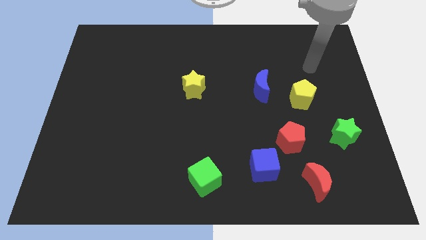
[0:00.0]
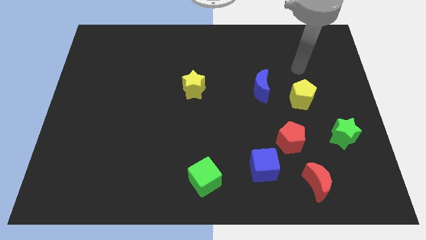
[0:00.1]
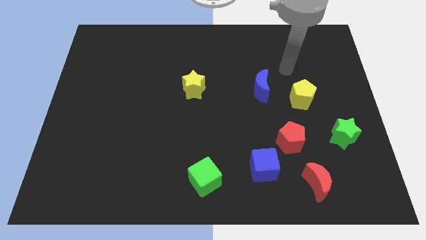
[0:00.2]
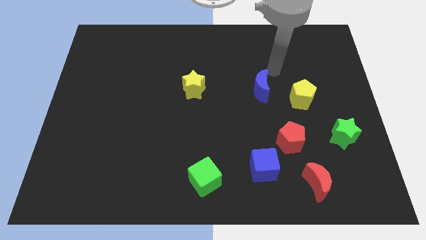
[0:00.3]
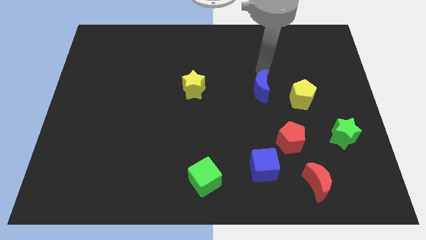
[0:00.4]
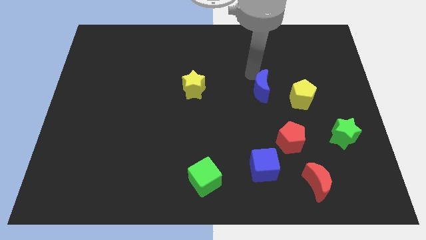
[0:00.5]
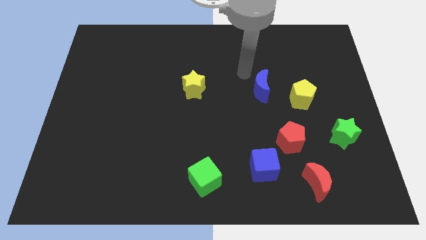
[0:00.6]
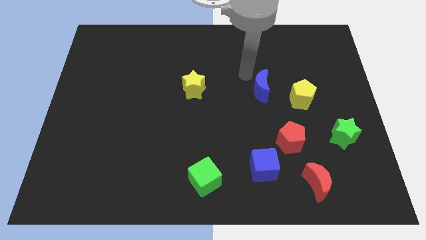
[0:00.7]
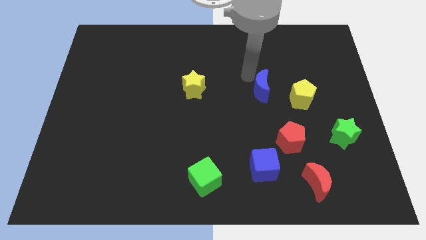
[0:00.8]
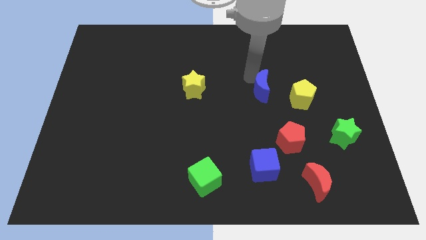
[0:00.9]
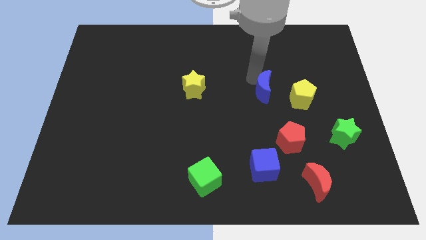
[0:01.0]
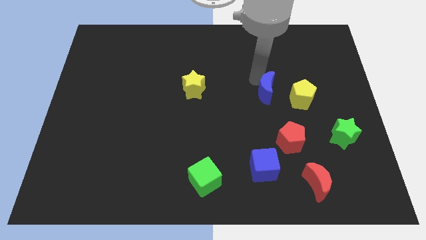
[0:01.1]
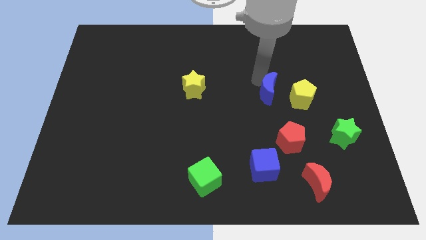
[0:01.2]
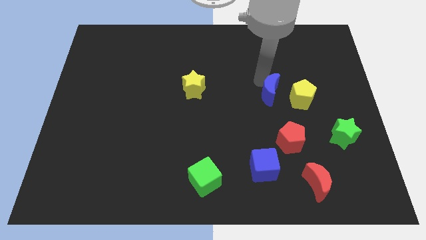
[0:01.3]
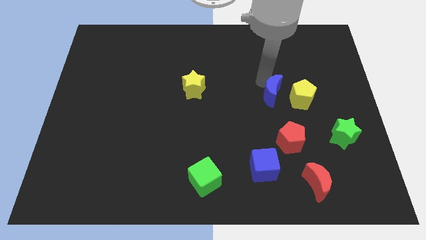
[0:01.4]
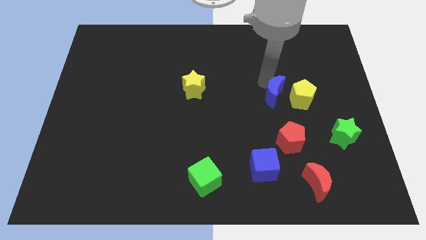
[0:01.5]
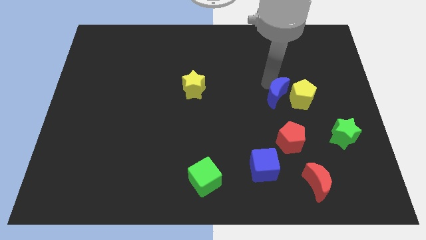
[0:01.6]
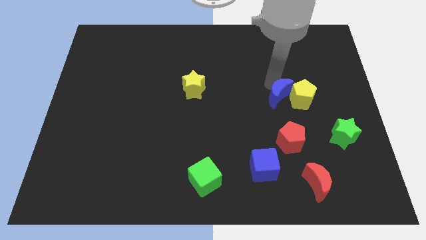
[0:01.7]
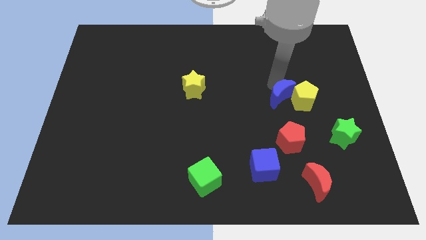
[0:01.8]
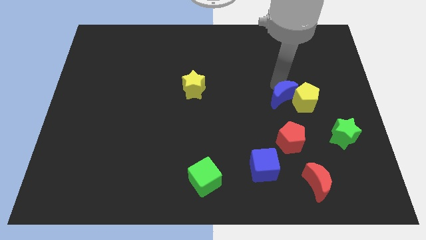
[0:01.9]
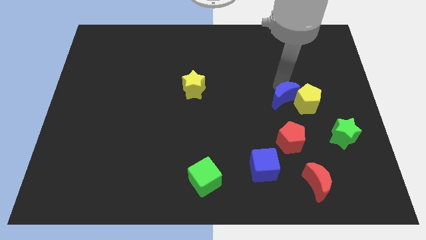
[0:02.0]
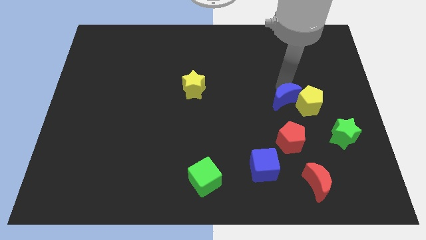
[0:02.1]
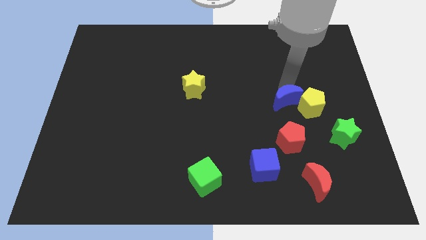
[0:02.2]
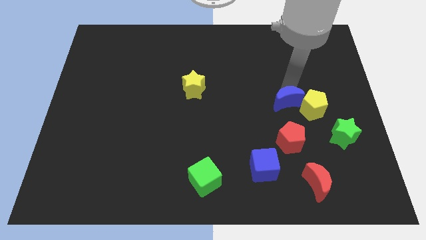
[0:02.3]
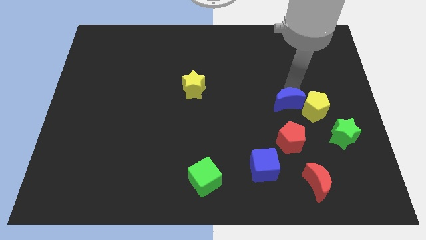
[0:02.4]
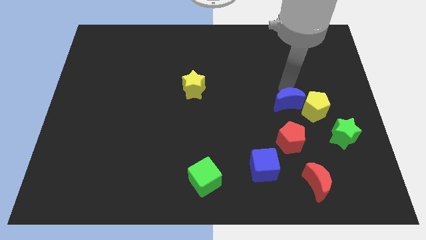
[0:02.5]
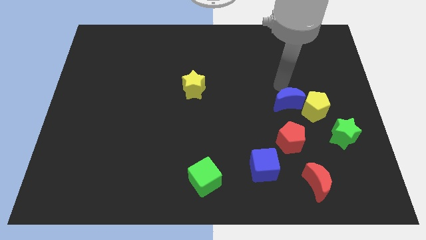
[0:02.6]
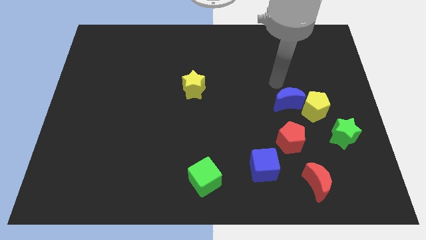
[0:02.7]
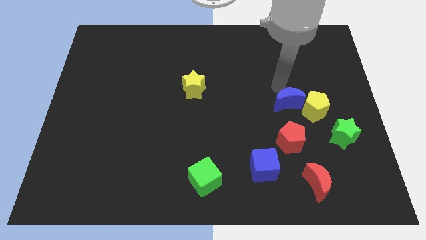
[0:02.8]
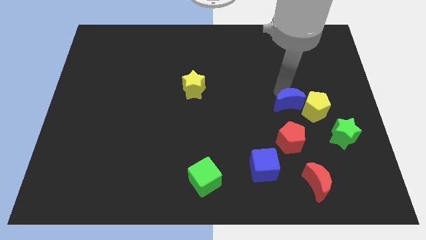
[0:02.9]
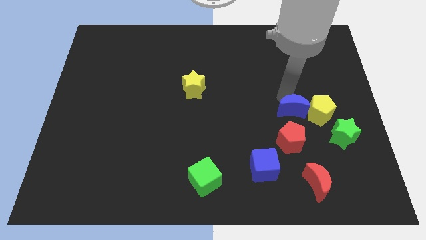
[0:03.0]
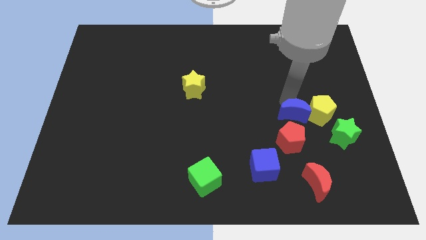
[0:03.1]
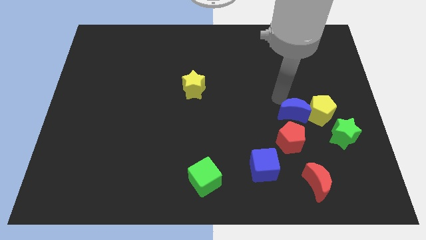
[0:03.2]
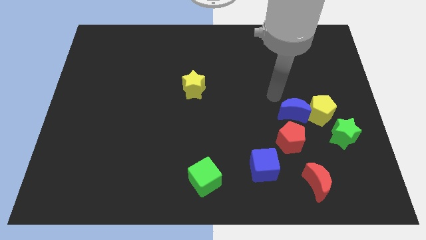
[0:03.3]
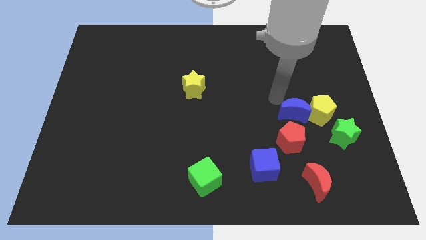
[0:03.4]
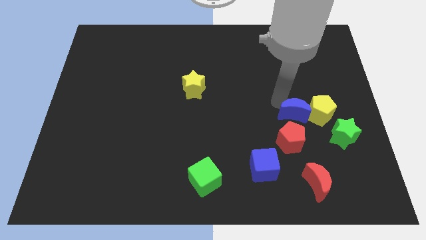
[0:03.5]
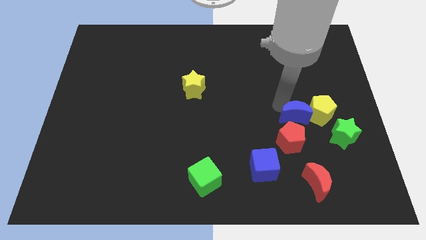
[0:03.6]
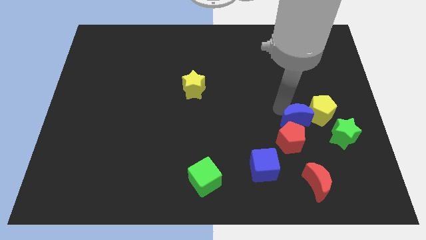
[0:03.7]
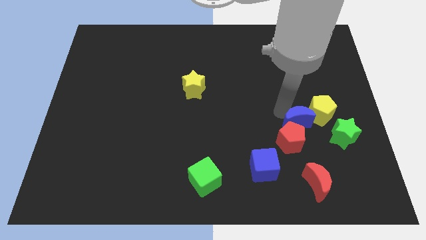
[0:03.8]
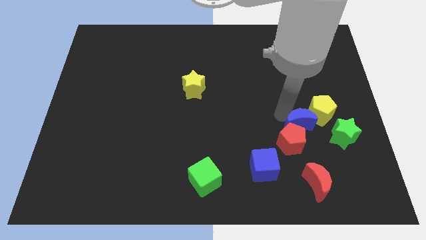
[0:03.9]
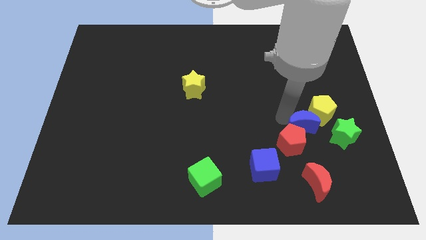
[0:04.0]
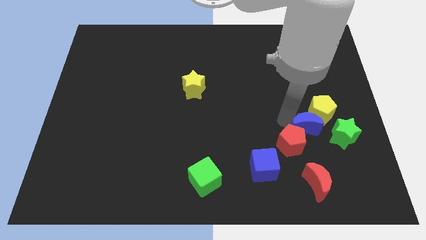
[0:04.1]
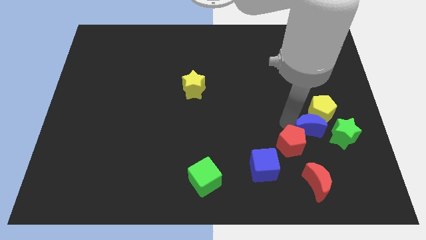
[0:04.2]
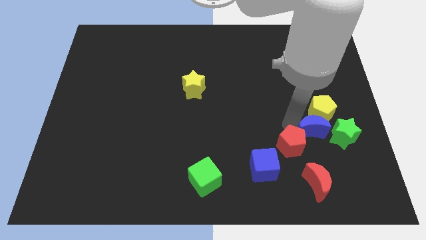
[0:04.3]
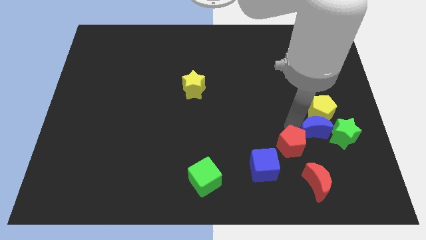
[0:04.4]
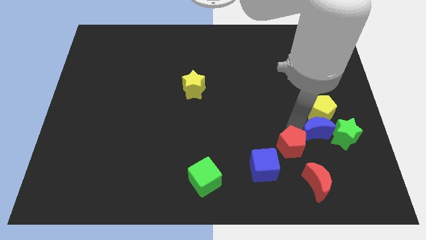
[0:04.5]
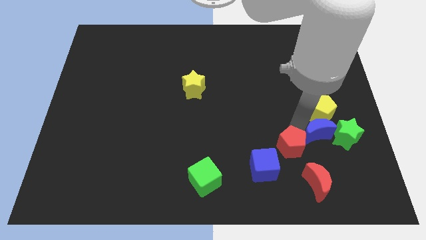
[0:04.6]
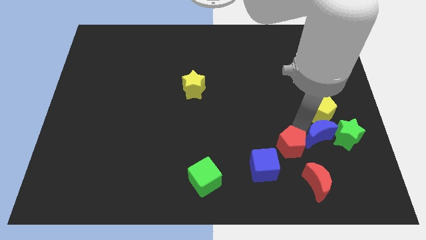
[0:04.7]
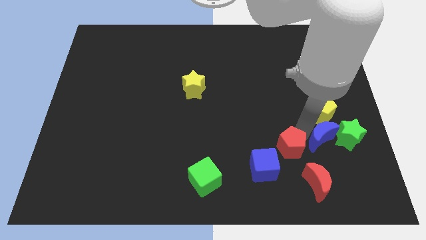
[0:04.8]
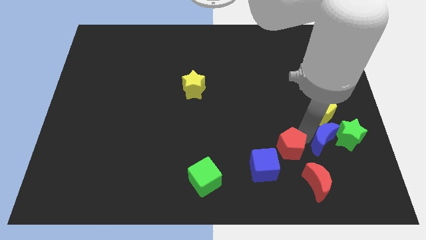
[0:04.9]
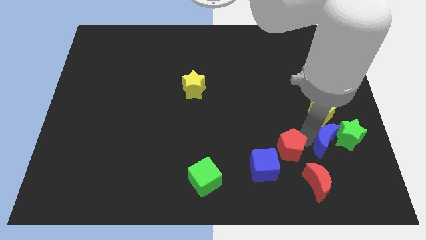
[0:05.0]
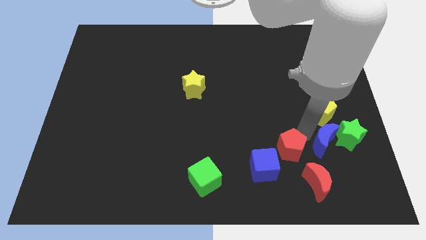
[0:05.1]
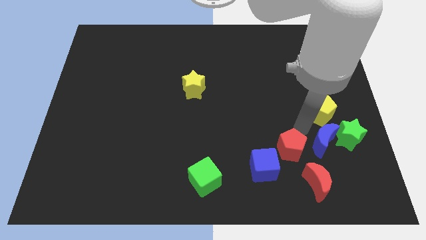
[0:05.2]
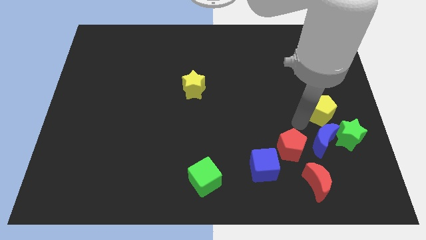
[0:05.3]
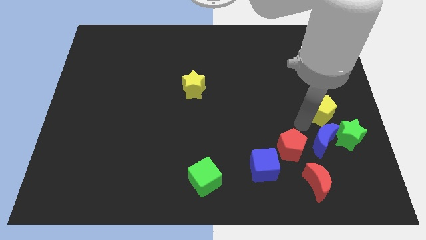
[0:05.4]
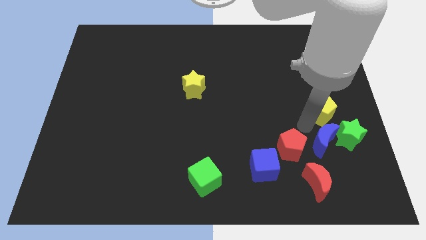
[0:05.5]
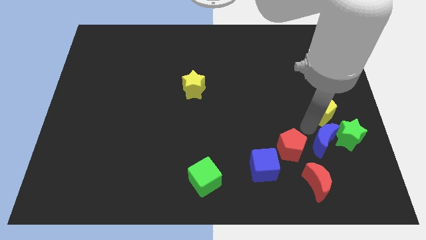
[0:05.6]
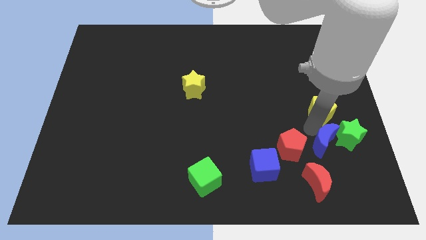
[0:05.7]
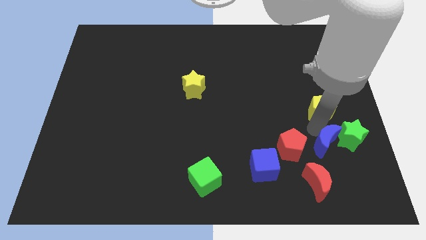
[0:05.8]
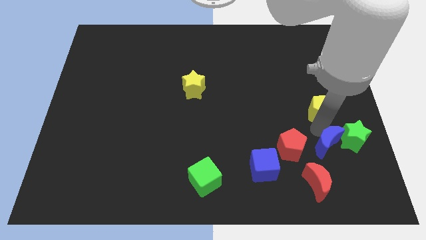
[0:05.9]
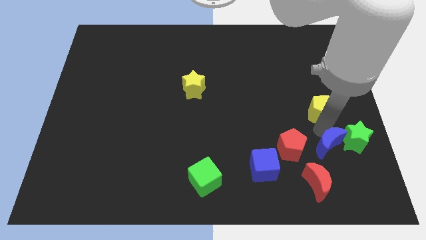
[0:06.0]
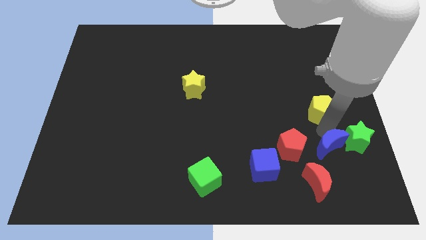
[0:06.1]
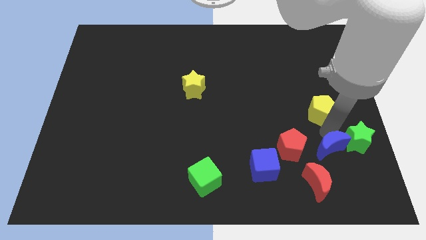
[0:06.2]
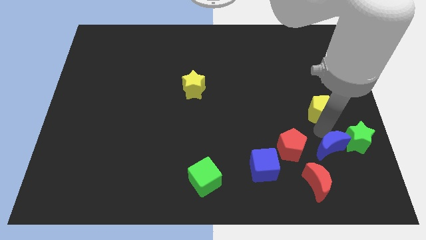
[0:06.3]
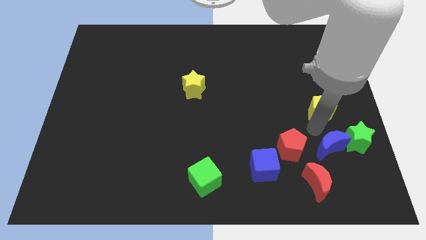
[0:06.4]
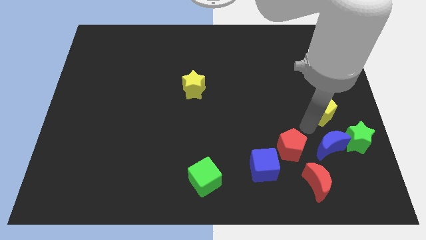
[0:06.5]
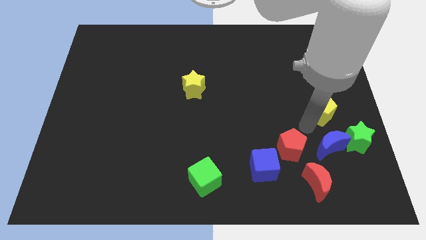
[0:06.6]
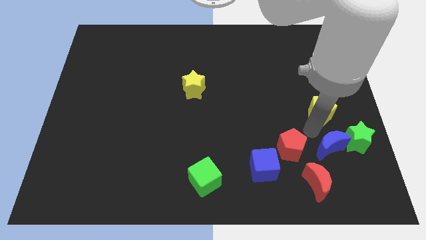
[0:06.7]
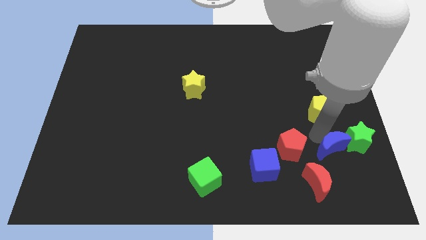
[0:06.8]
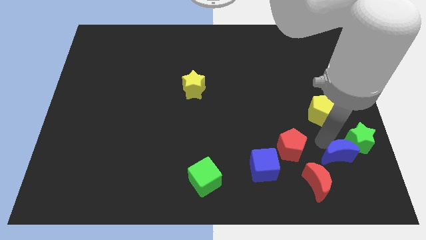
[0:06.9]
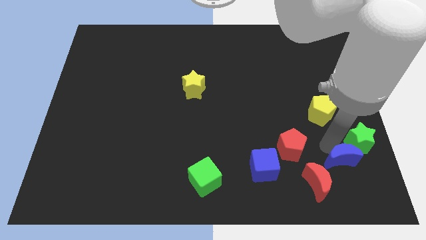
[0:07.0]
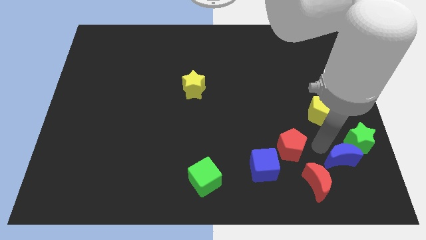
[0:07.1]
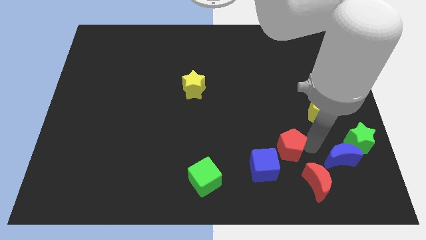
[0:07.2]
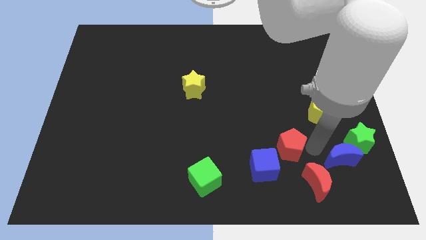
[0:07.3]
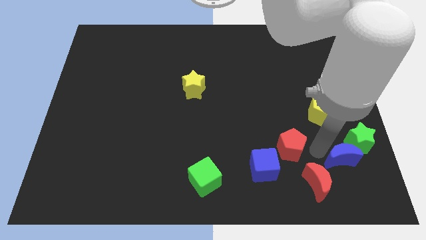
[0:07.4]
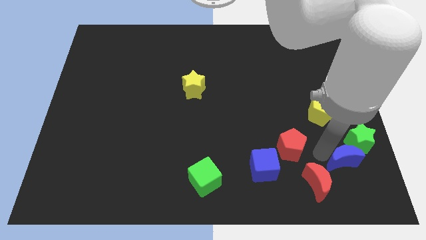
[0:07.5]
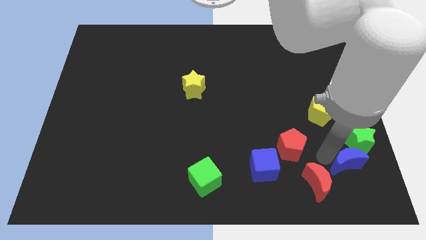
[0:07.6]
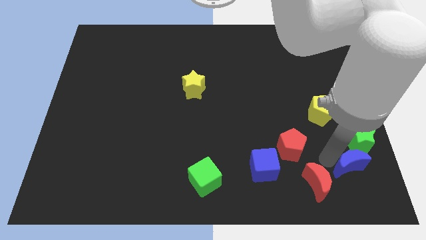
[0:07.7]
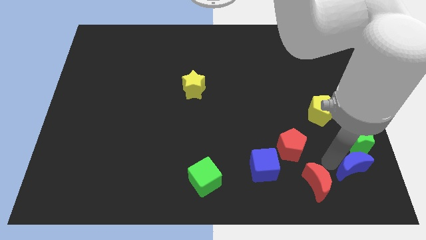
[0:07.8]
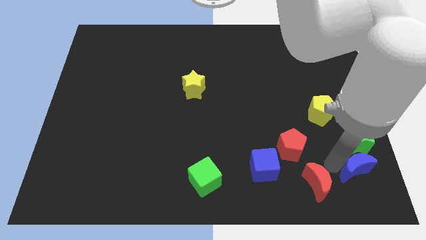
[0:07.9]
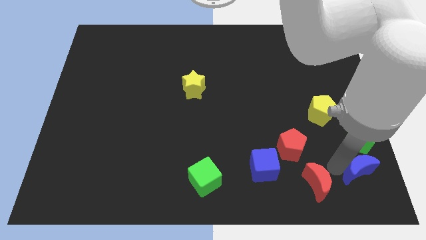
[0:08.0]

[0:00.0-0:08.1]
move the blue moon to the bottom right corner
